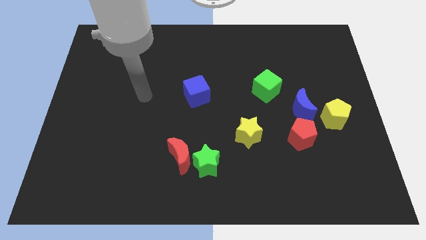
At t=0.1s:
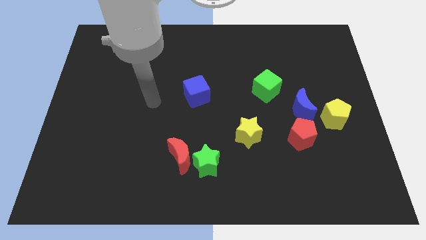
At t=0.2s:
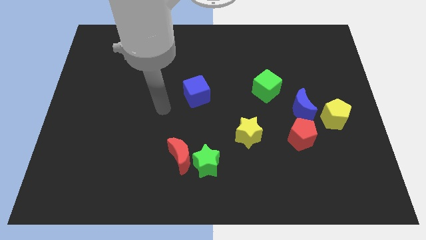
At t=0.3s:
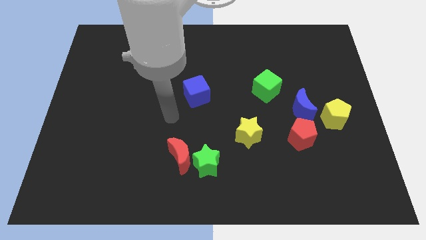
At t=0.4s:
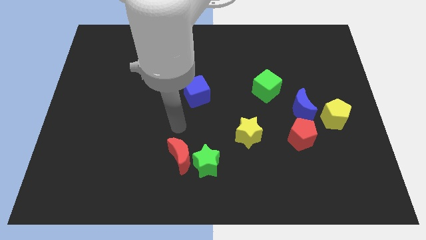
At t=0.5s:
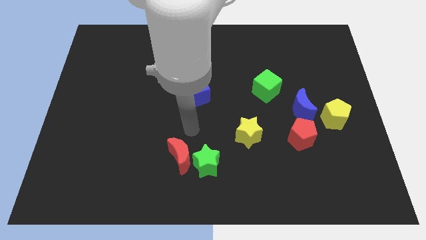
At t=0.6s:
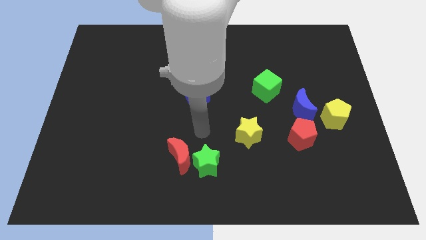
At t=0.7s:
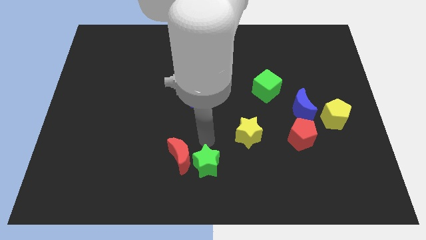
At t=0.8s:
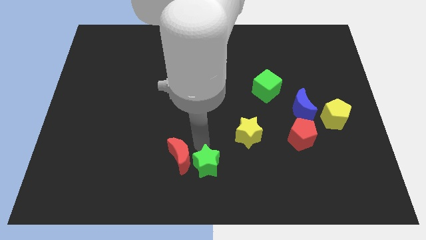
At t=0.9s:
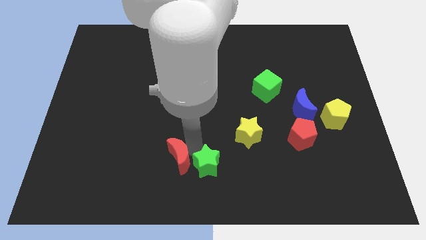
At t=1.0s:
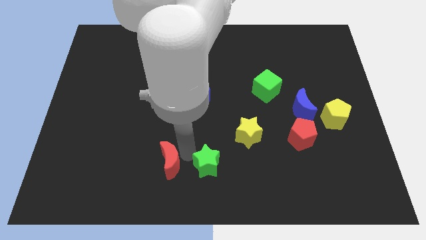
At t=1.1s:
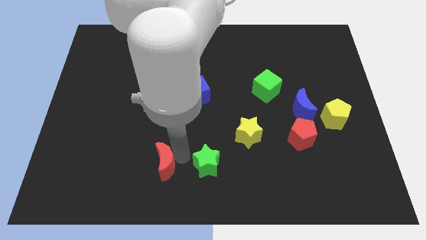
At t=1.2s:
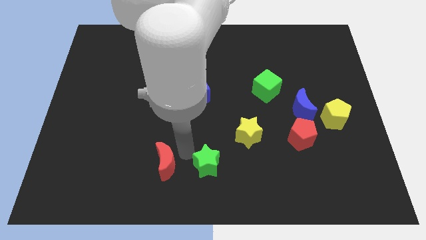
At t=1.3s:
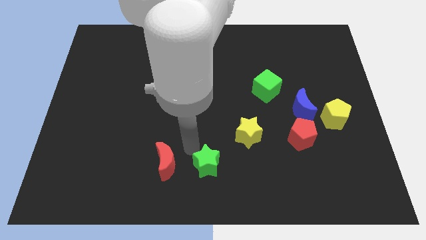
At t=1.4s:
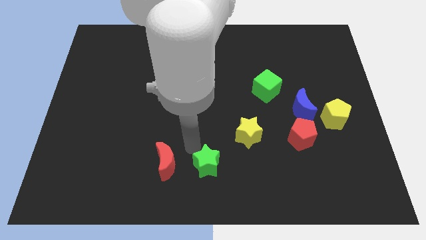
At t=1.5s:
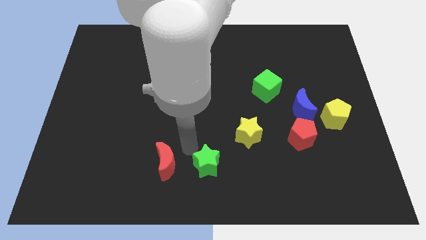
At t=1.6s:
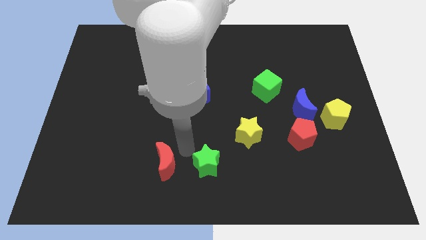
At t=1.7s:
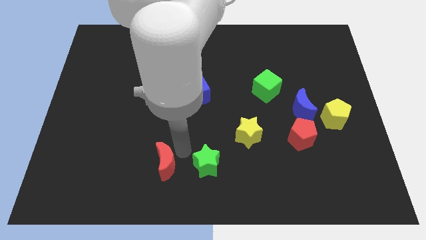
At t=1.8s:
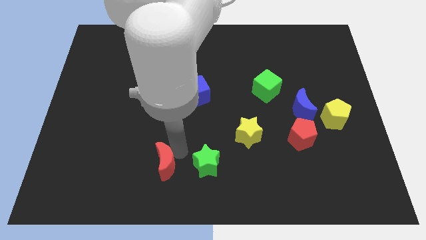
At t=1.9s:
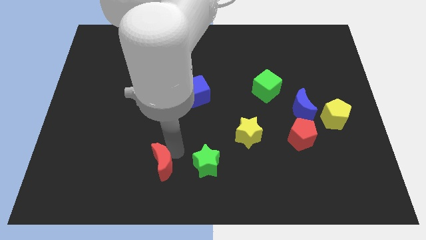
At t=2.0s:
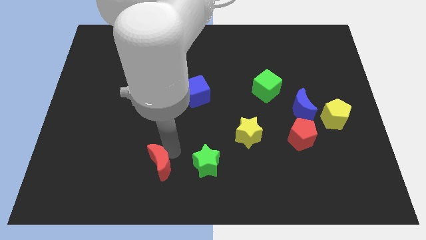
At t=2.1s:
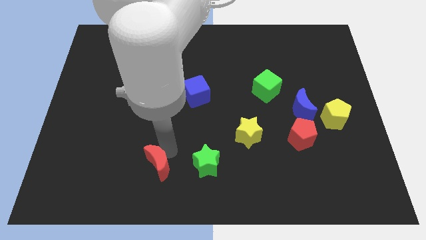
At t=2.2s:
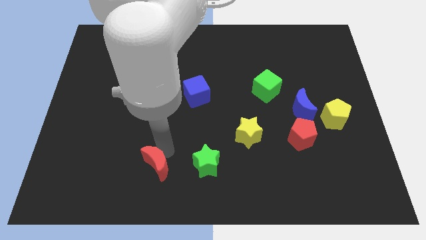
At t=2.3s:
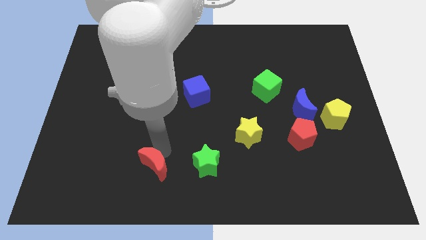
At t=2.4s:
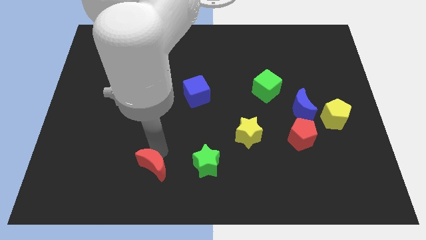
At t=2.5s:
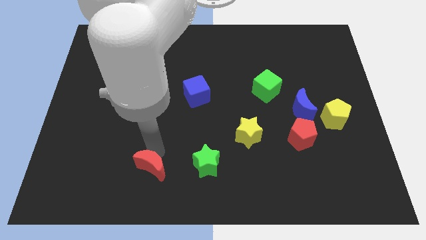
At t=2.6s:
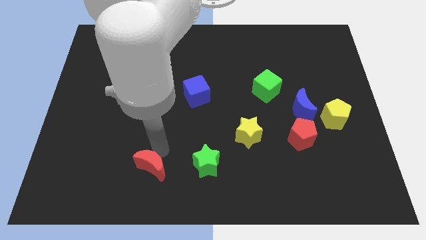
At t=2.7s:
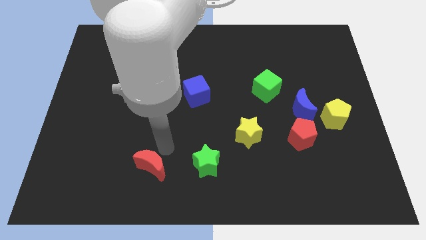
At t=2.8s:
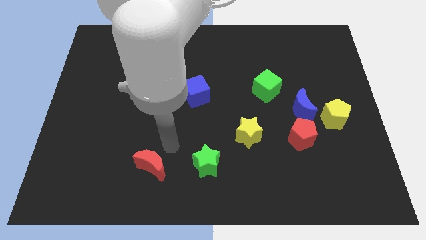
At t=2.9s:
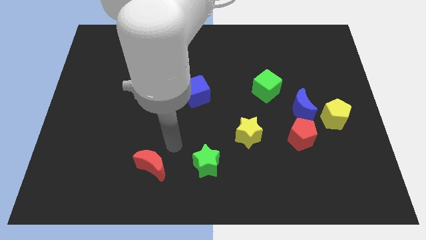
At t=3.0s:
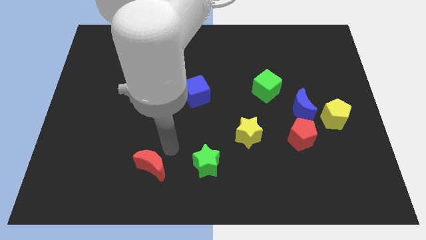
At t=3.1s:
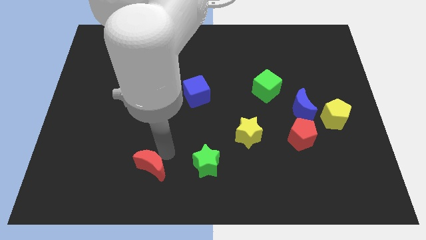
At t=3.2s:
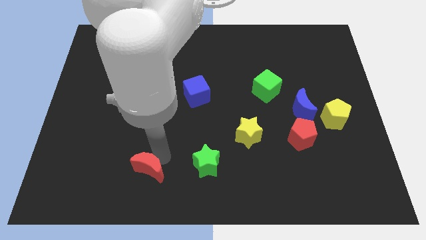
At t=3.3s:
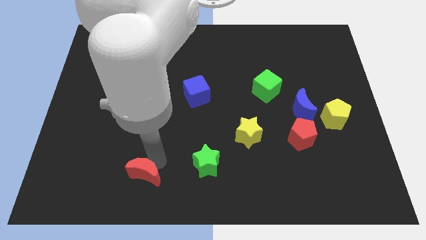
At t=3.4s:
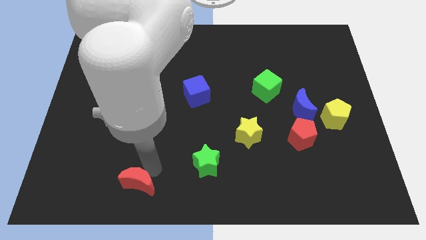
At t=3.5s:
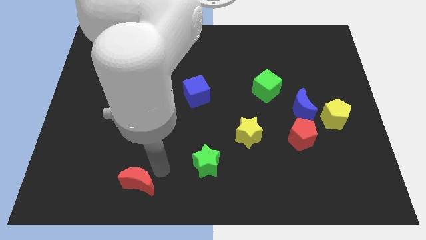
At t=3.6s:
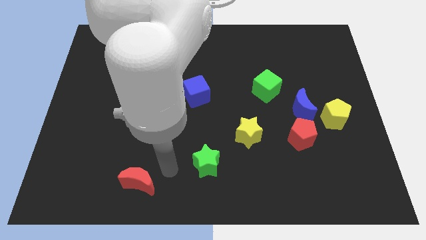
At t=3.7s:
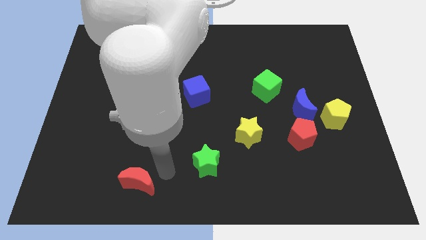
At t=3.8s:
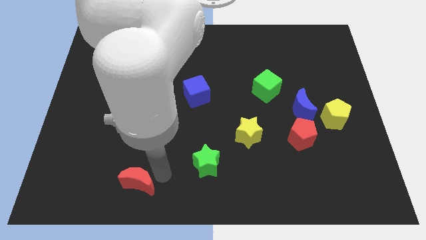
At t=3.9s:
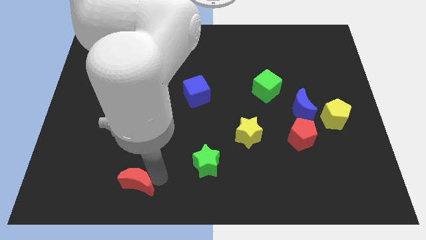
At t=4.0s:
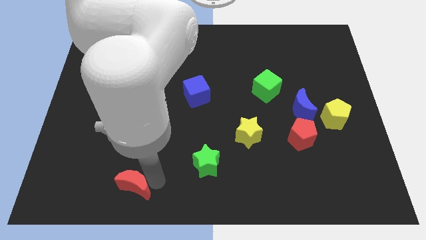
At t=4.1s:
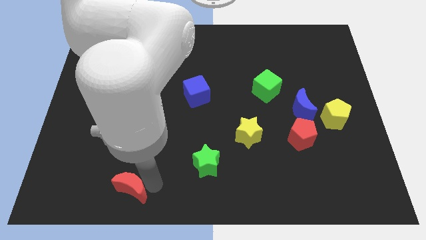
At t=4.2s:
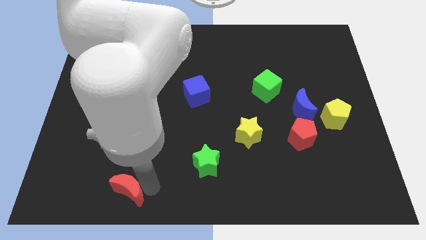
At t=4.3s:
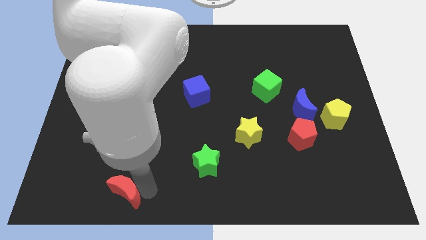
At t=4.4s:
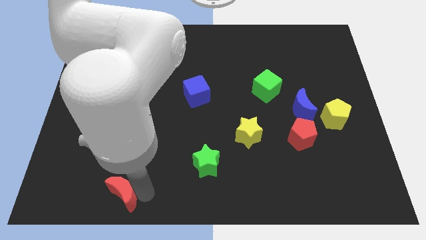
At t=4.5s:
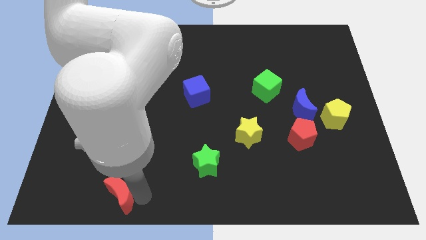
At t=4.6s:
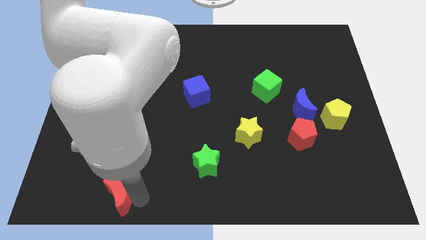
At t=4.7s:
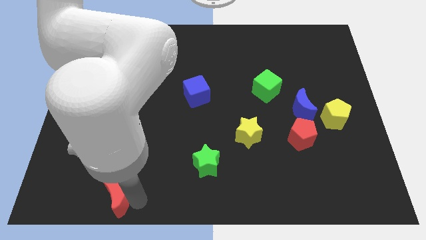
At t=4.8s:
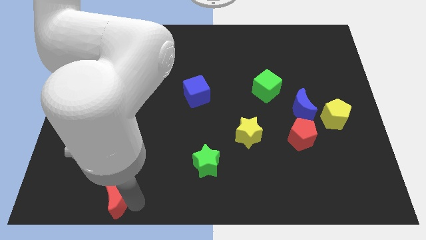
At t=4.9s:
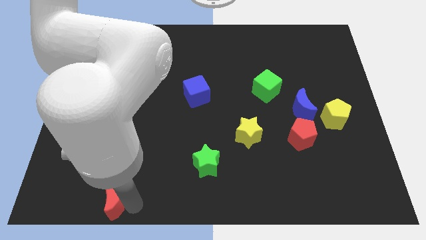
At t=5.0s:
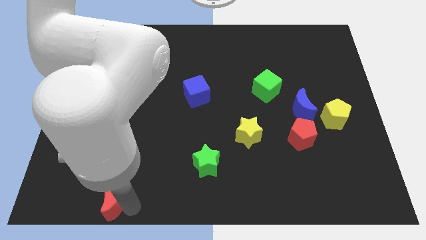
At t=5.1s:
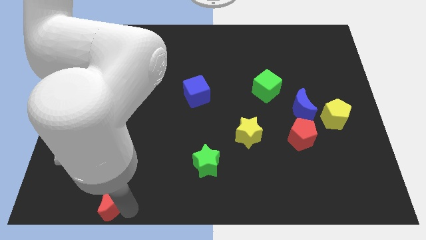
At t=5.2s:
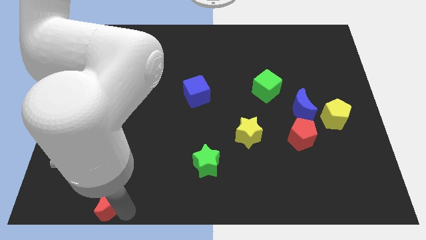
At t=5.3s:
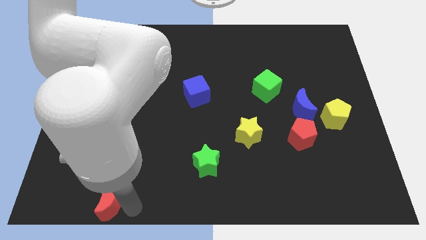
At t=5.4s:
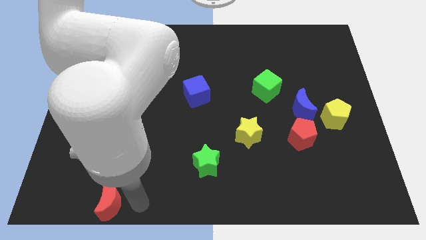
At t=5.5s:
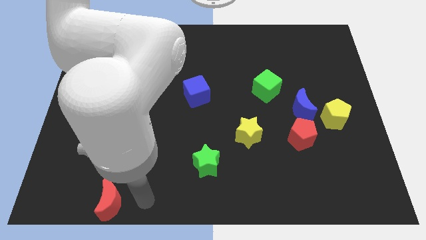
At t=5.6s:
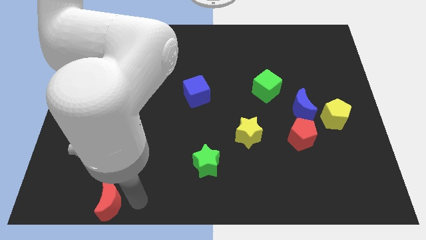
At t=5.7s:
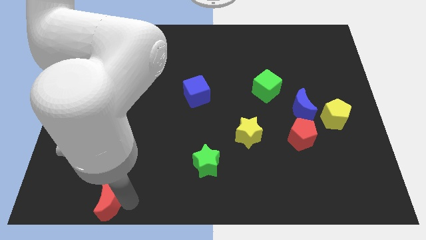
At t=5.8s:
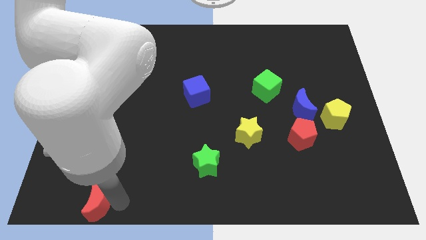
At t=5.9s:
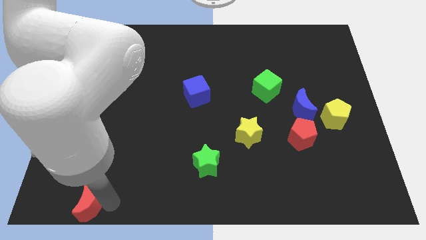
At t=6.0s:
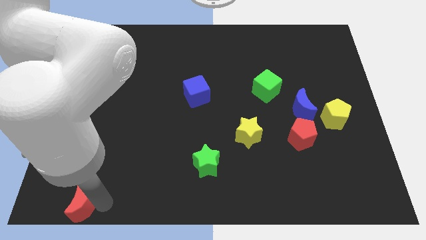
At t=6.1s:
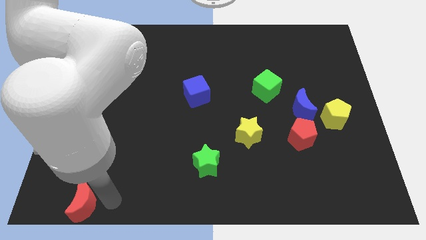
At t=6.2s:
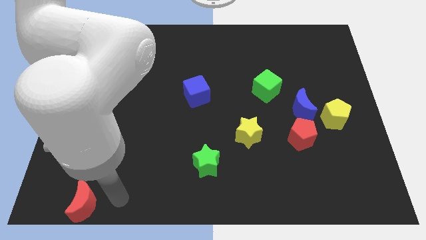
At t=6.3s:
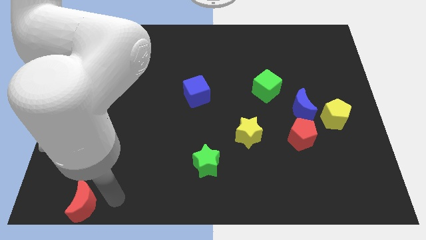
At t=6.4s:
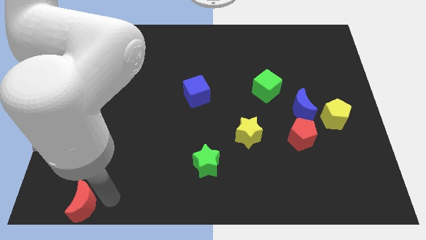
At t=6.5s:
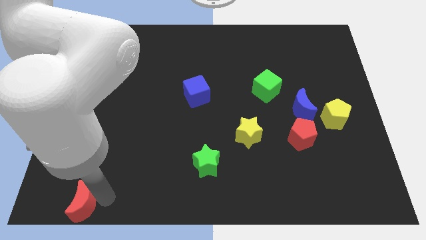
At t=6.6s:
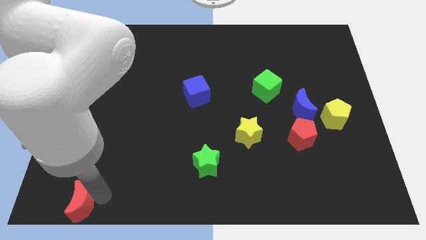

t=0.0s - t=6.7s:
put the red moon to the bottom left of the board
